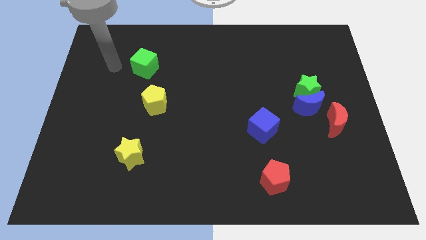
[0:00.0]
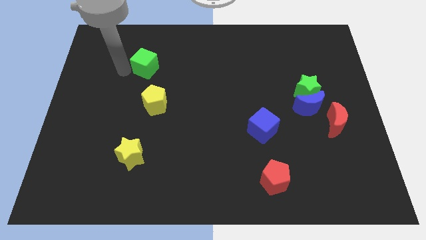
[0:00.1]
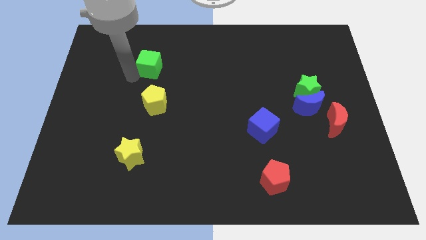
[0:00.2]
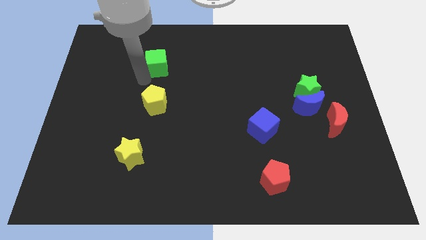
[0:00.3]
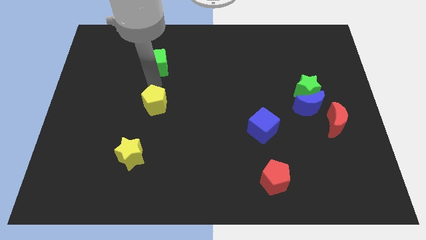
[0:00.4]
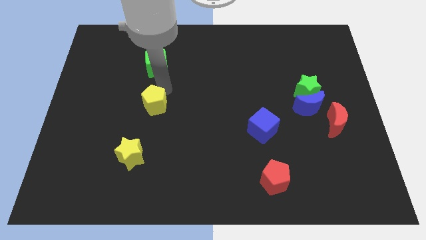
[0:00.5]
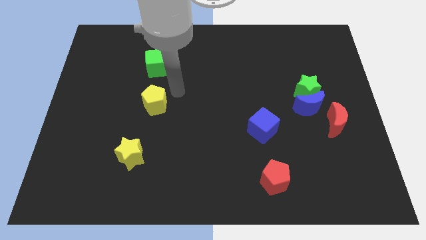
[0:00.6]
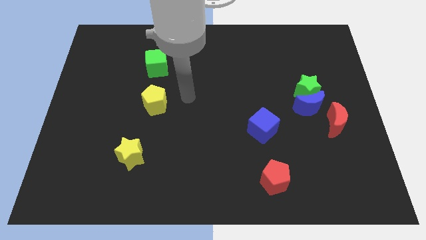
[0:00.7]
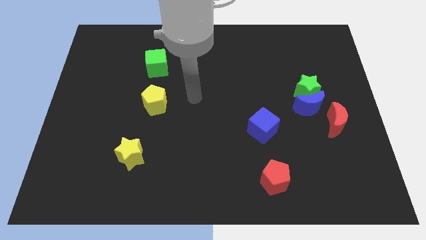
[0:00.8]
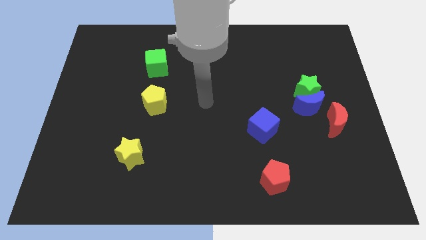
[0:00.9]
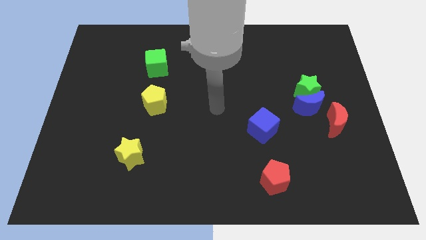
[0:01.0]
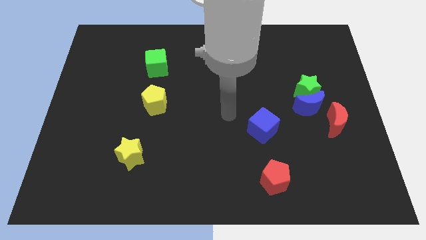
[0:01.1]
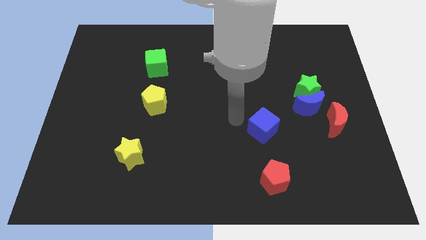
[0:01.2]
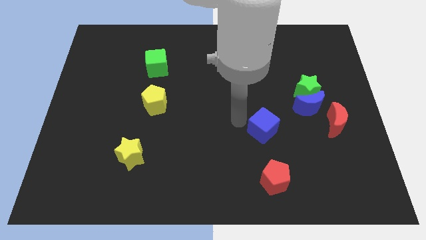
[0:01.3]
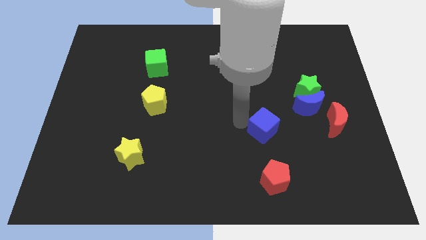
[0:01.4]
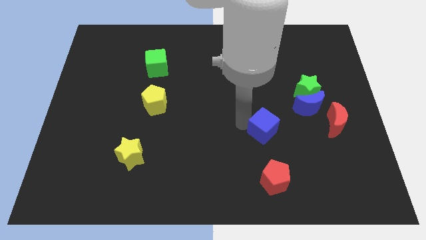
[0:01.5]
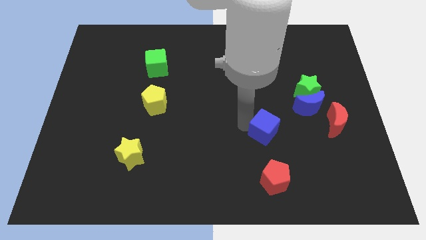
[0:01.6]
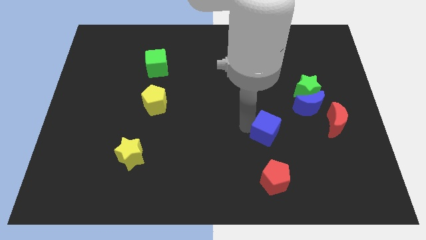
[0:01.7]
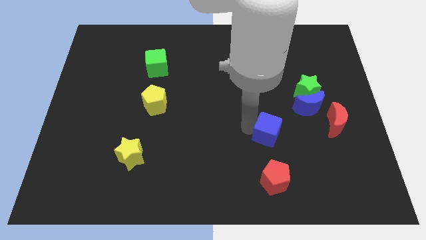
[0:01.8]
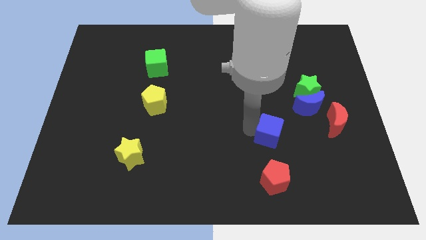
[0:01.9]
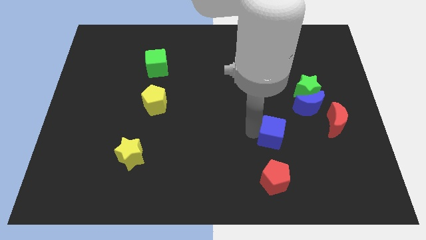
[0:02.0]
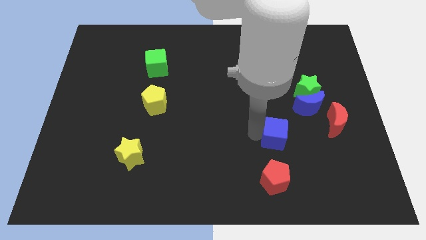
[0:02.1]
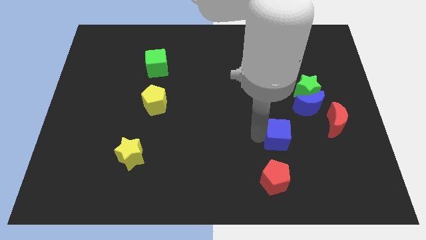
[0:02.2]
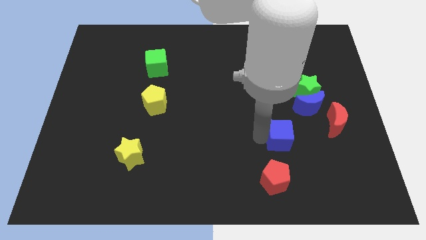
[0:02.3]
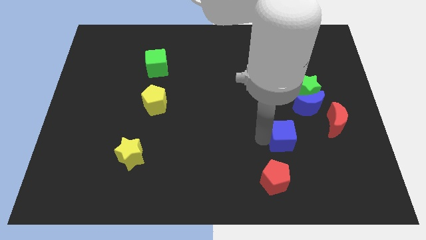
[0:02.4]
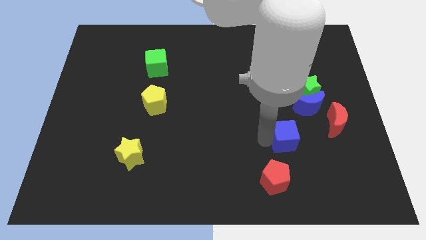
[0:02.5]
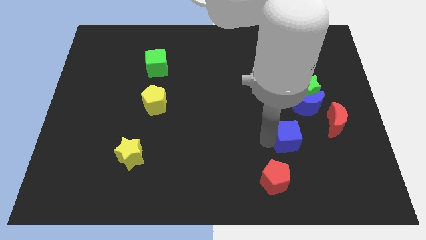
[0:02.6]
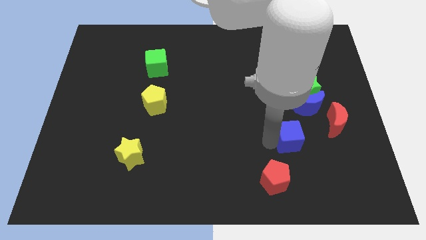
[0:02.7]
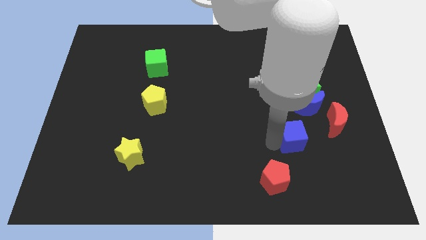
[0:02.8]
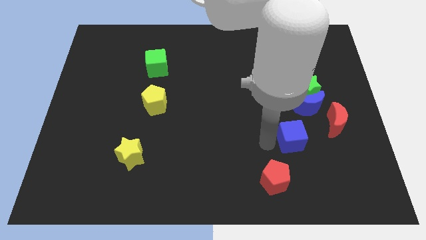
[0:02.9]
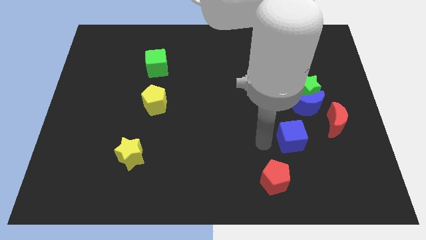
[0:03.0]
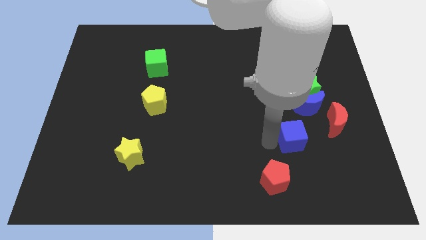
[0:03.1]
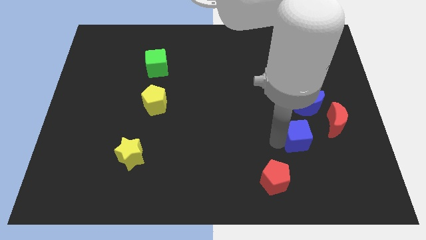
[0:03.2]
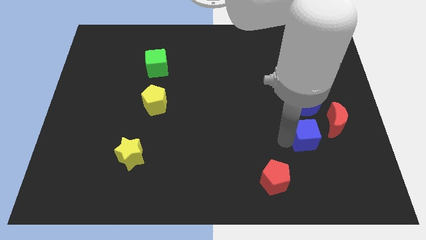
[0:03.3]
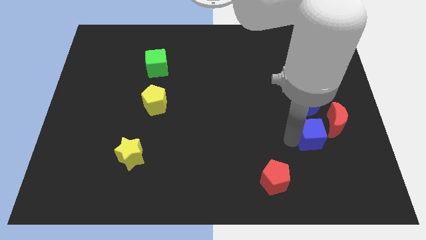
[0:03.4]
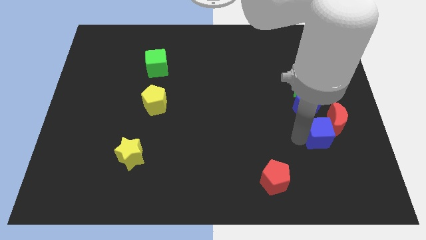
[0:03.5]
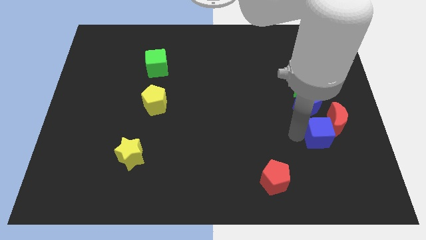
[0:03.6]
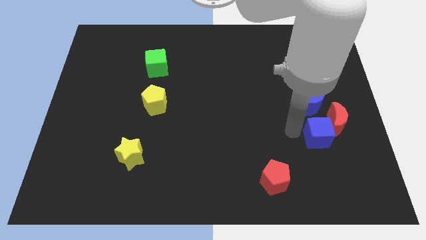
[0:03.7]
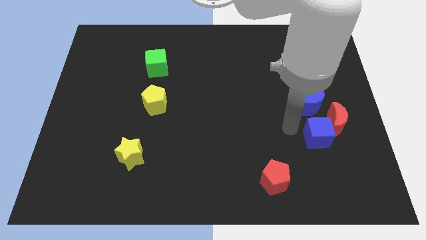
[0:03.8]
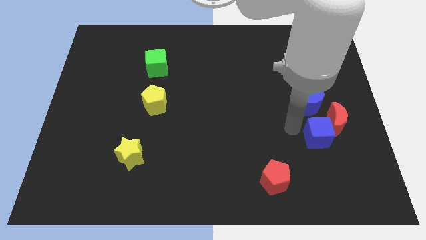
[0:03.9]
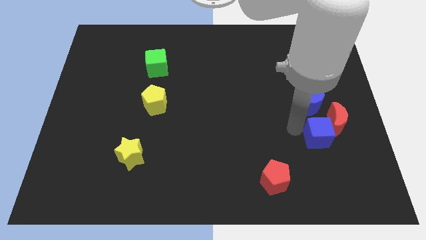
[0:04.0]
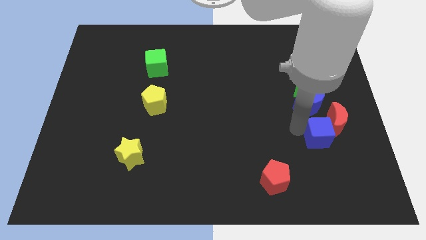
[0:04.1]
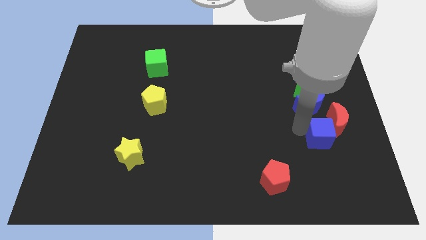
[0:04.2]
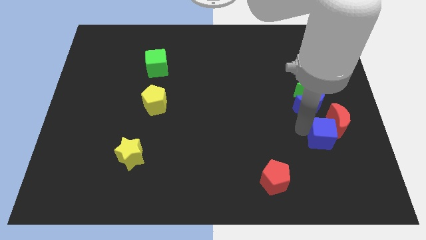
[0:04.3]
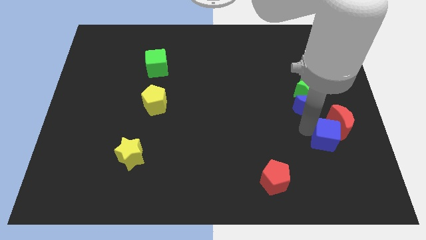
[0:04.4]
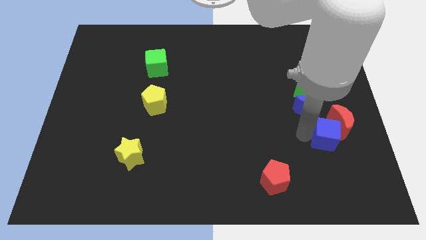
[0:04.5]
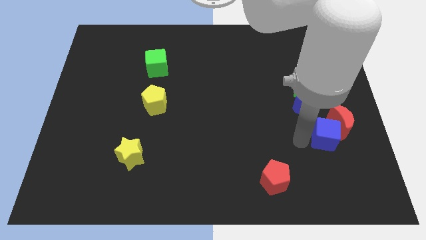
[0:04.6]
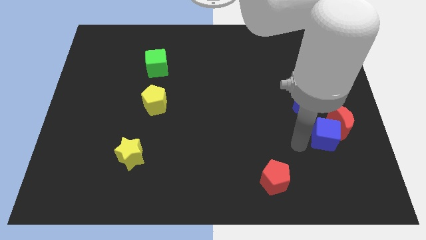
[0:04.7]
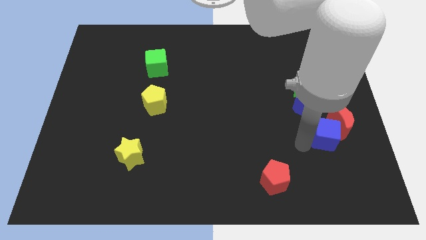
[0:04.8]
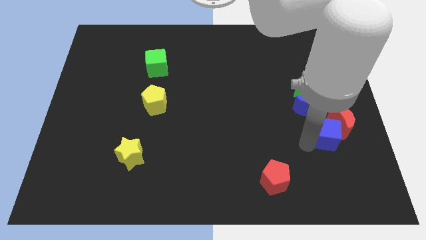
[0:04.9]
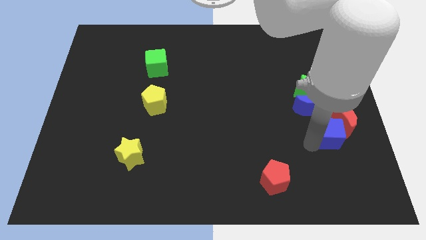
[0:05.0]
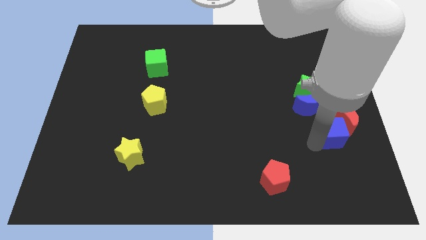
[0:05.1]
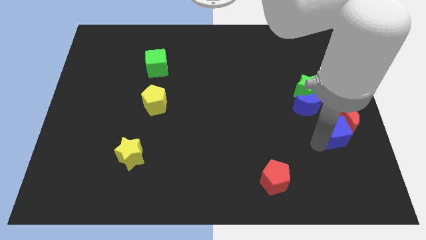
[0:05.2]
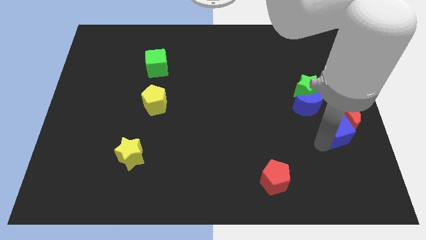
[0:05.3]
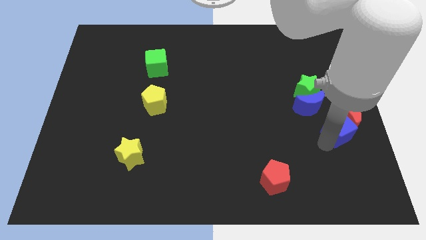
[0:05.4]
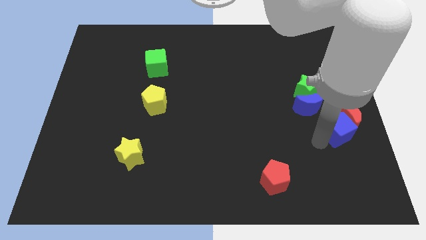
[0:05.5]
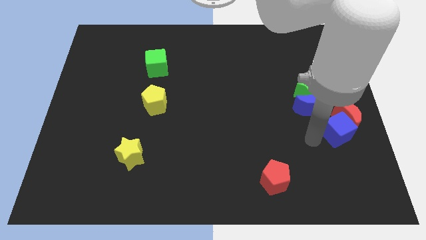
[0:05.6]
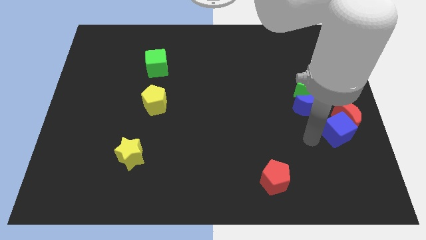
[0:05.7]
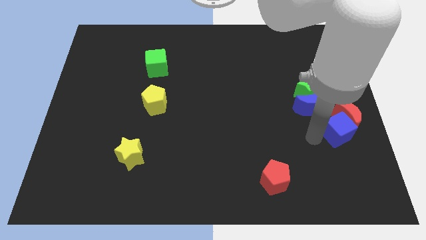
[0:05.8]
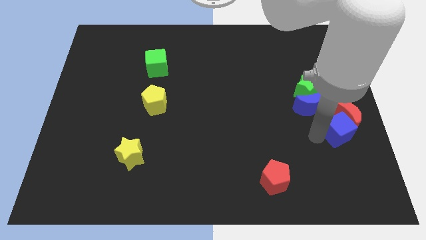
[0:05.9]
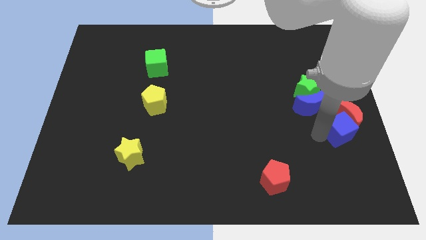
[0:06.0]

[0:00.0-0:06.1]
put the blue cube to the center right

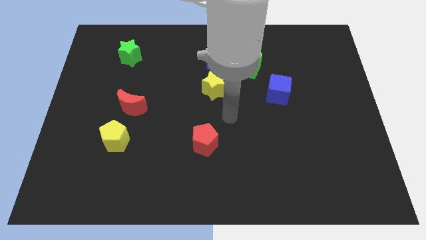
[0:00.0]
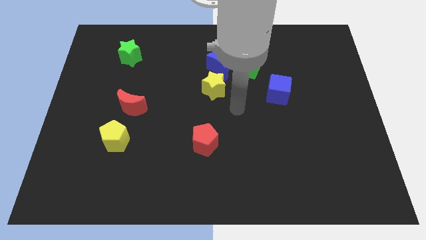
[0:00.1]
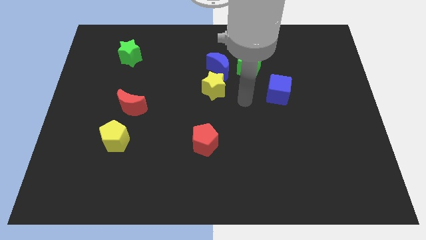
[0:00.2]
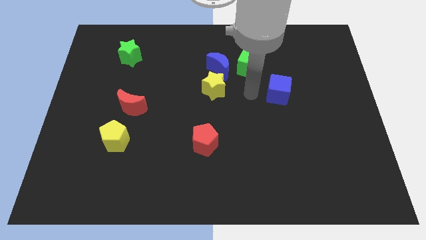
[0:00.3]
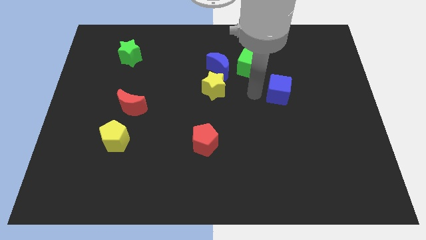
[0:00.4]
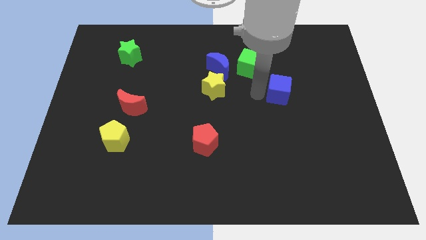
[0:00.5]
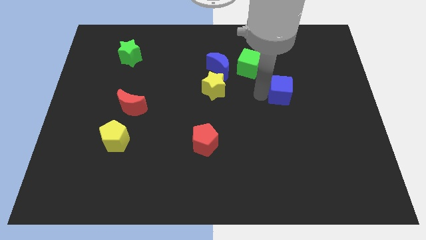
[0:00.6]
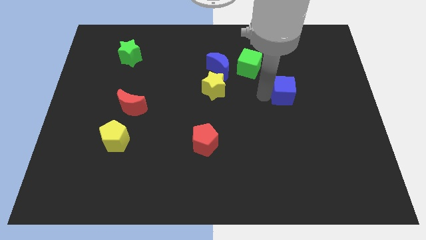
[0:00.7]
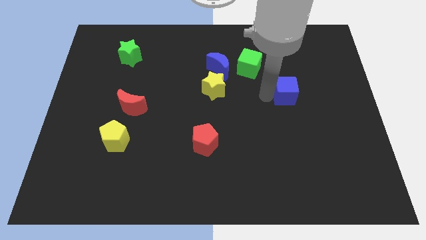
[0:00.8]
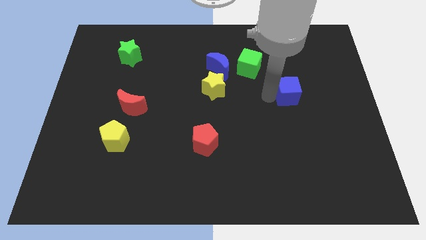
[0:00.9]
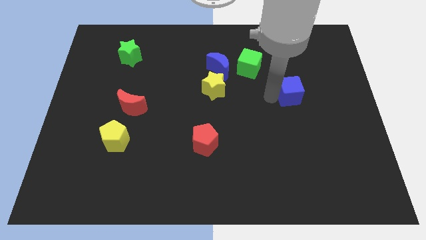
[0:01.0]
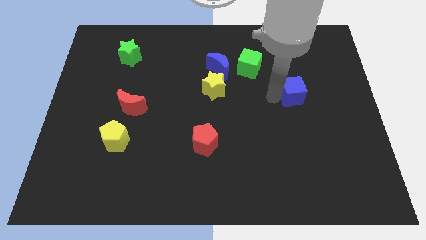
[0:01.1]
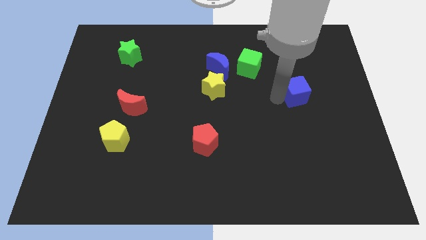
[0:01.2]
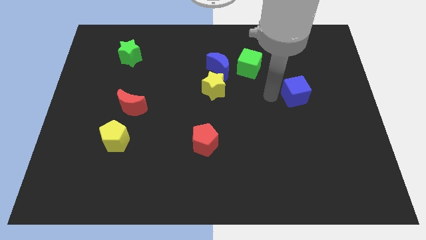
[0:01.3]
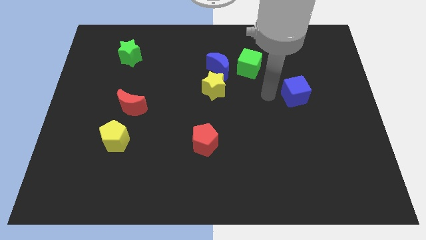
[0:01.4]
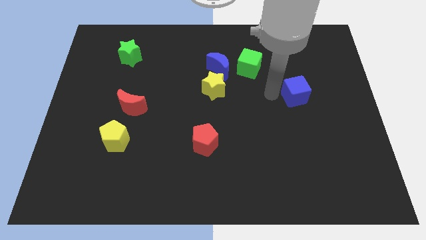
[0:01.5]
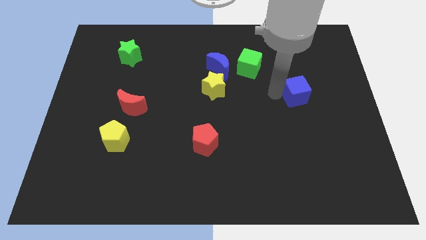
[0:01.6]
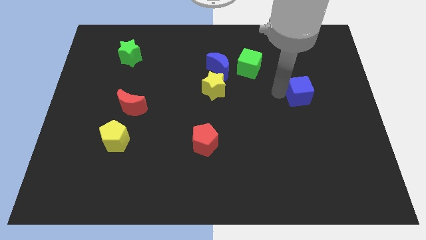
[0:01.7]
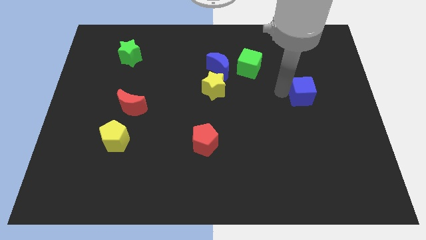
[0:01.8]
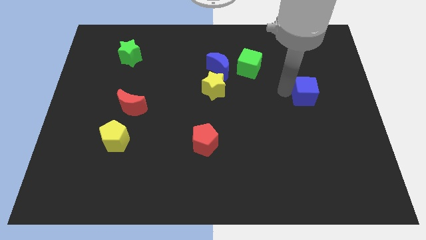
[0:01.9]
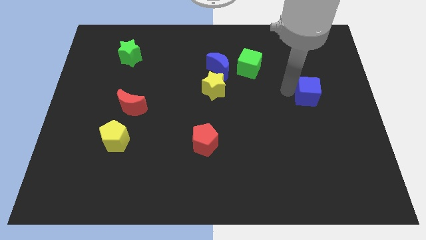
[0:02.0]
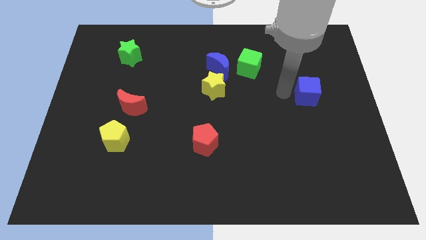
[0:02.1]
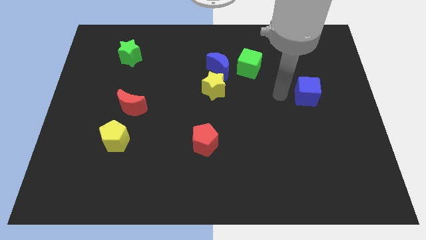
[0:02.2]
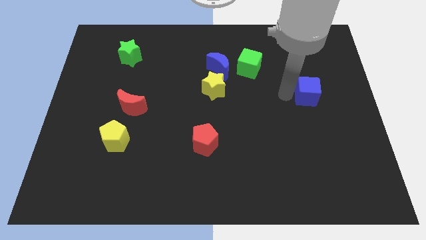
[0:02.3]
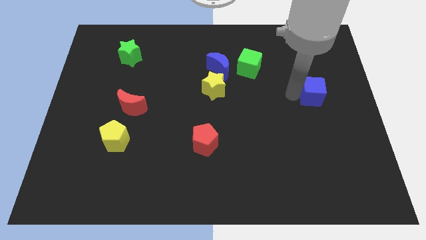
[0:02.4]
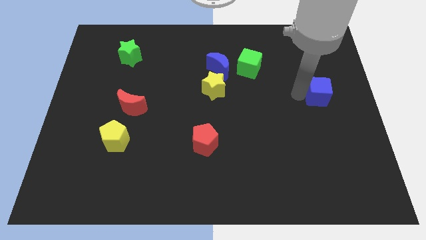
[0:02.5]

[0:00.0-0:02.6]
put the blue cube to the right side of the board
